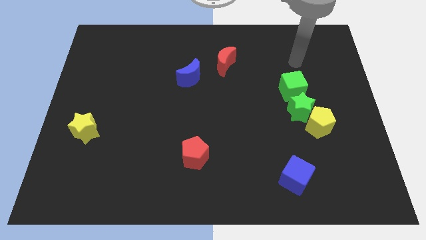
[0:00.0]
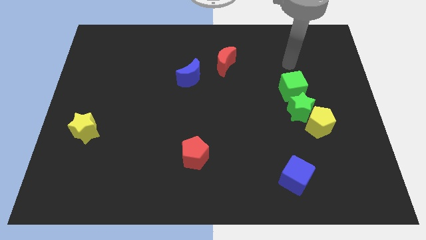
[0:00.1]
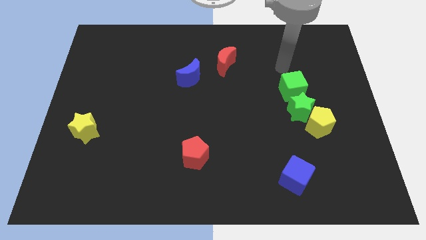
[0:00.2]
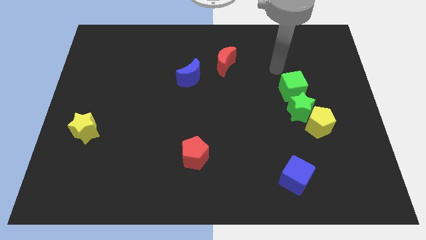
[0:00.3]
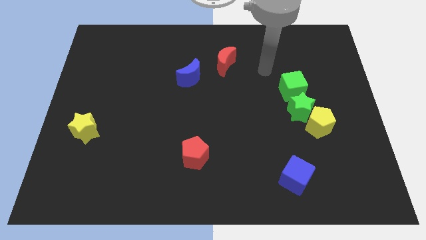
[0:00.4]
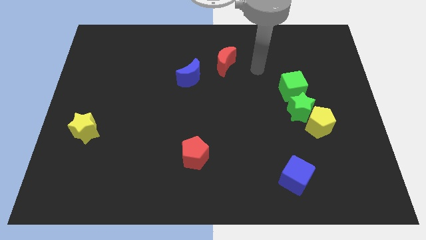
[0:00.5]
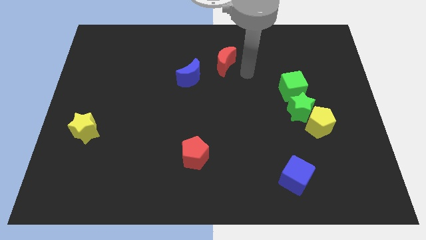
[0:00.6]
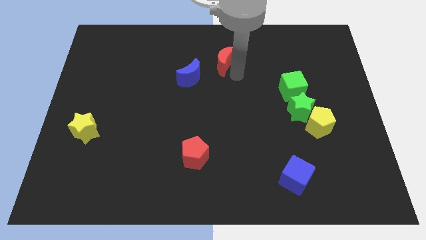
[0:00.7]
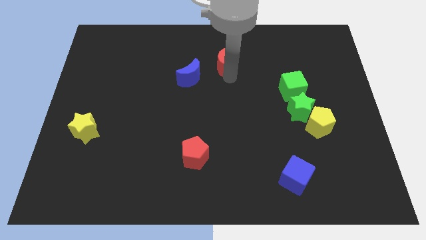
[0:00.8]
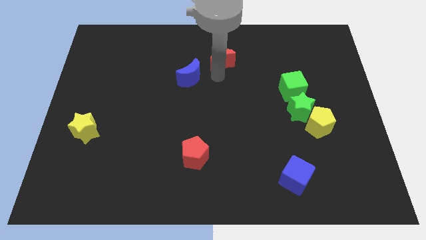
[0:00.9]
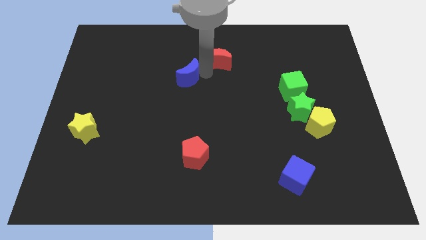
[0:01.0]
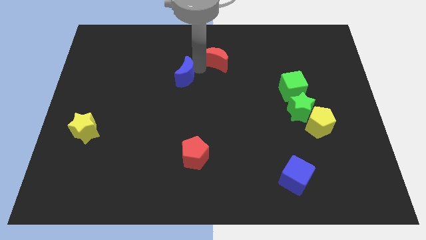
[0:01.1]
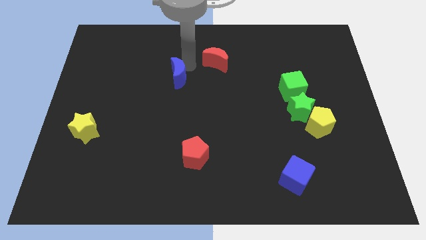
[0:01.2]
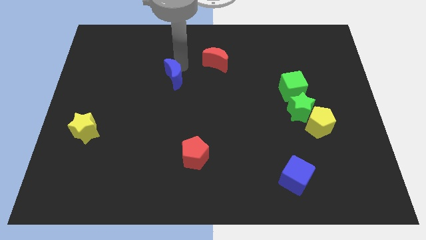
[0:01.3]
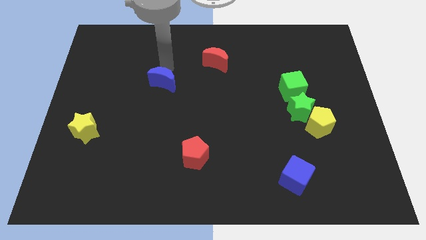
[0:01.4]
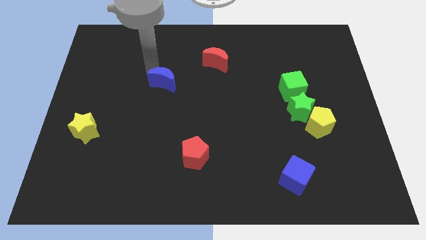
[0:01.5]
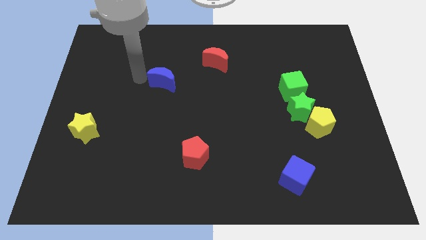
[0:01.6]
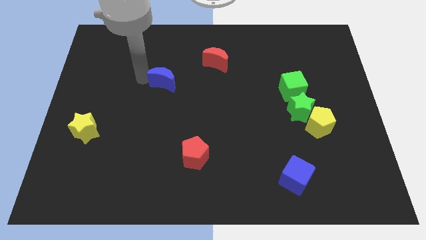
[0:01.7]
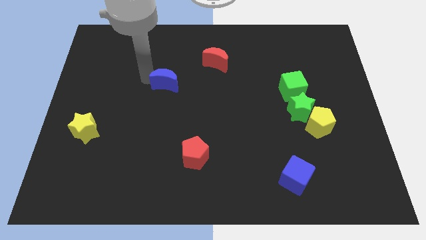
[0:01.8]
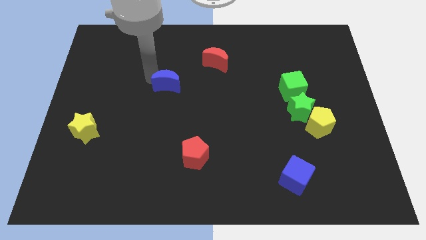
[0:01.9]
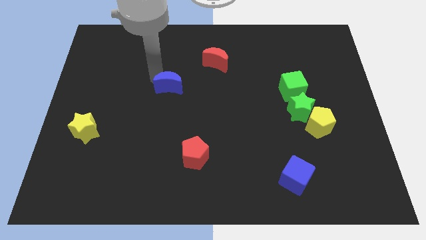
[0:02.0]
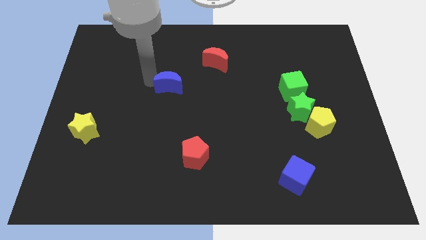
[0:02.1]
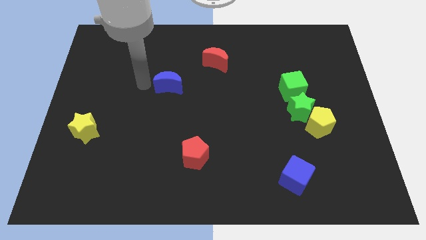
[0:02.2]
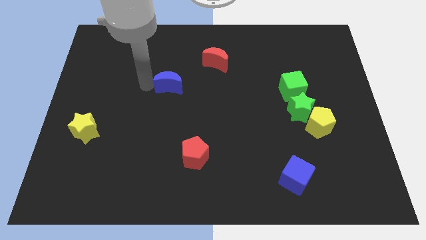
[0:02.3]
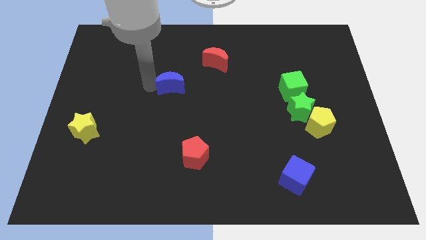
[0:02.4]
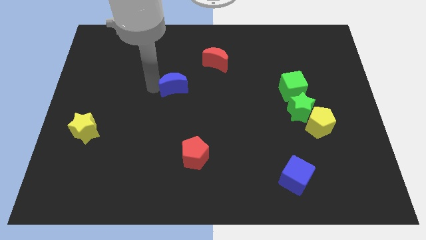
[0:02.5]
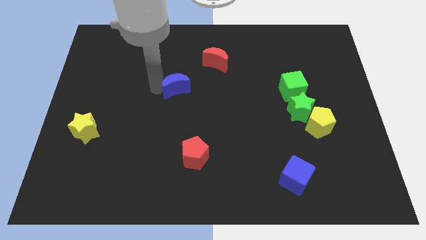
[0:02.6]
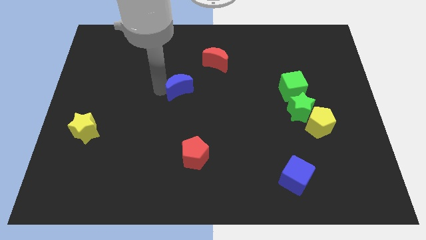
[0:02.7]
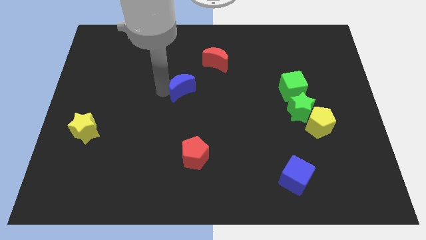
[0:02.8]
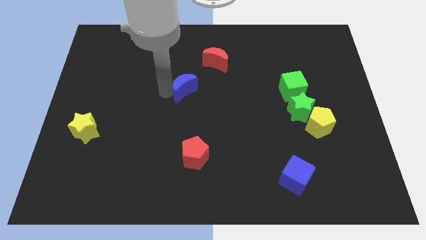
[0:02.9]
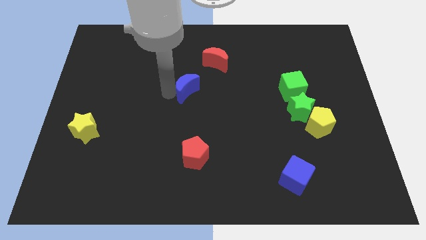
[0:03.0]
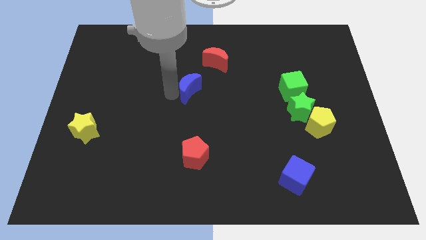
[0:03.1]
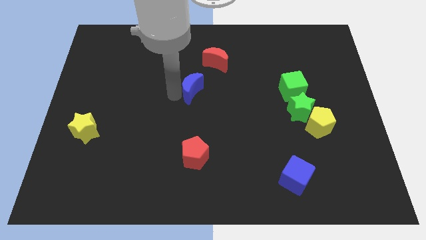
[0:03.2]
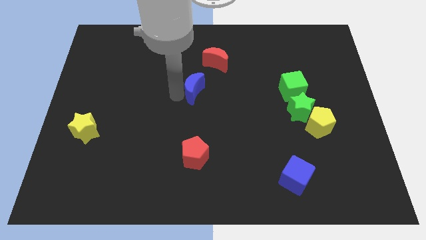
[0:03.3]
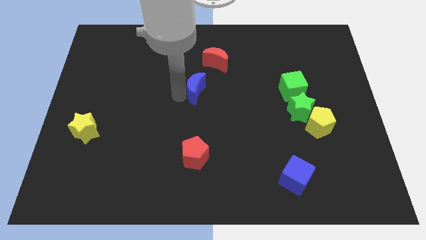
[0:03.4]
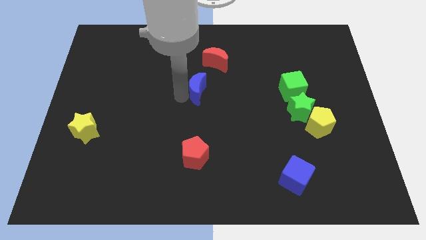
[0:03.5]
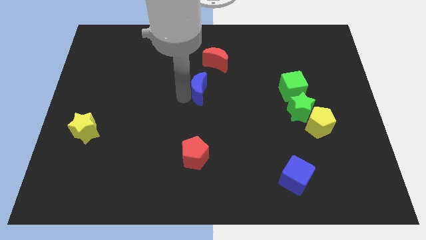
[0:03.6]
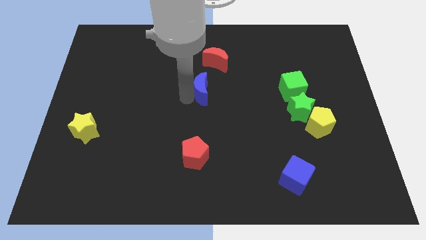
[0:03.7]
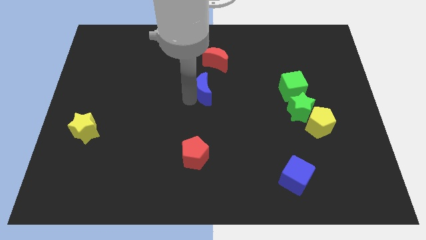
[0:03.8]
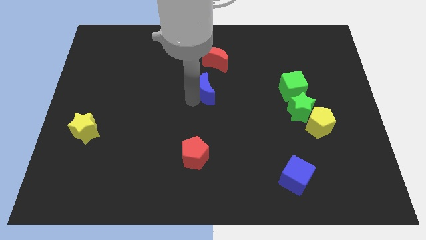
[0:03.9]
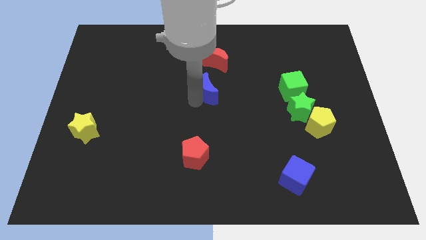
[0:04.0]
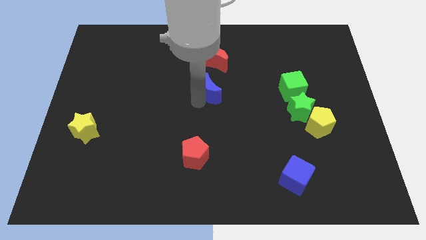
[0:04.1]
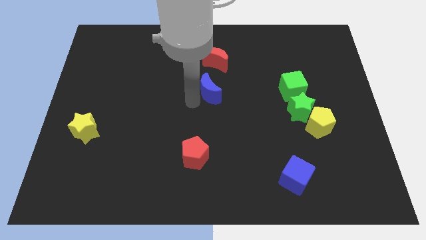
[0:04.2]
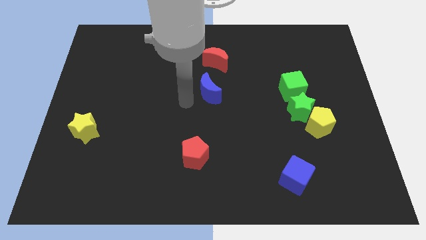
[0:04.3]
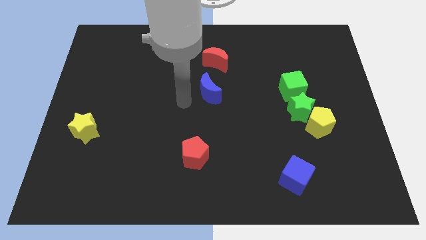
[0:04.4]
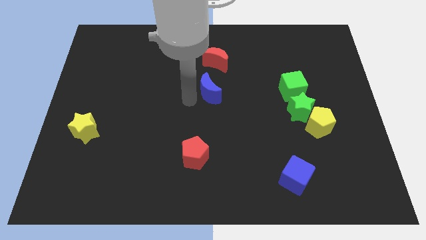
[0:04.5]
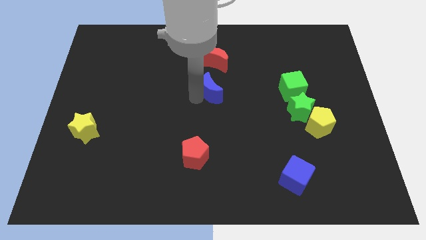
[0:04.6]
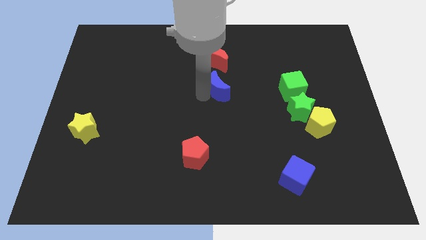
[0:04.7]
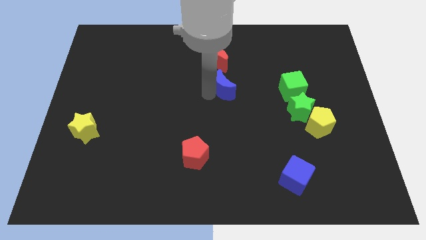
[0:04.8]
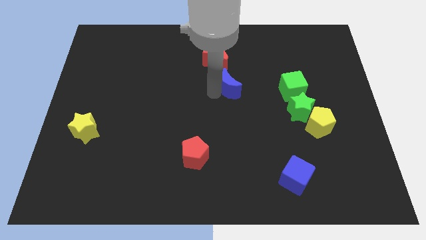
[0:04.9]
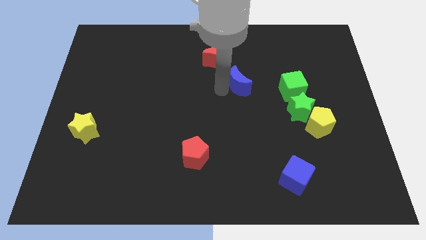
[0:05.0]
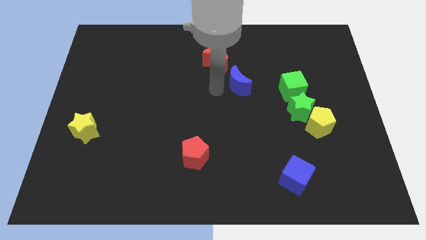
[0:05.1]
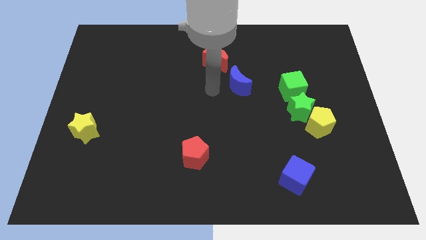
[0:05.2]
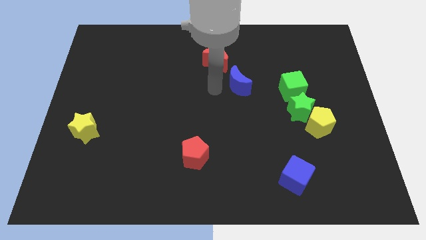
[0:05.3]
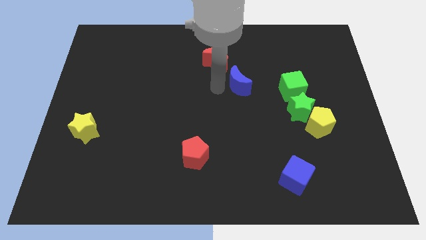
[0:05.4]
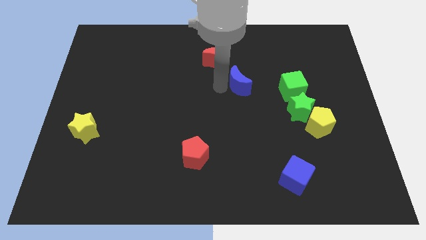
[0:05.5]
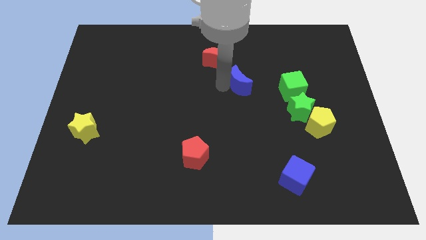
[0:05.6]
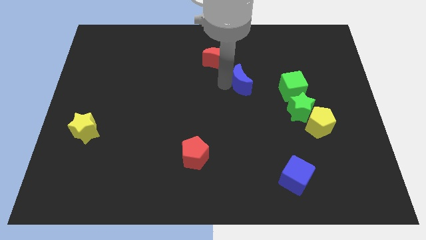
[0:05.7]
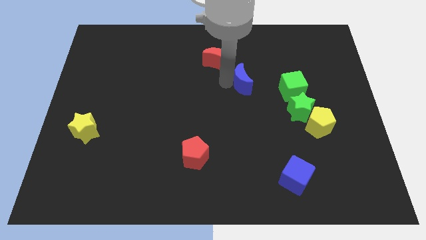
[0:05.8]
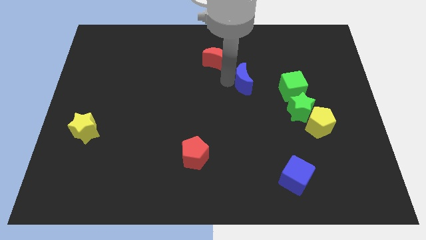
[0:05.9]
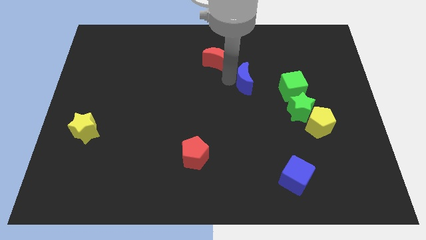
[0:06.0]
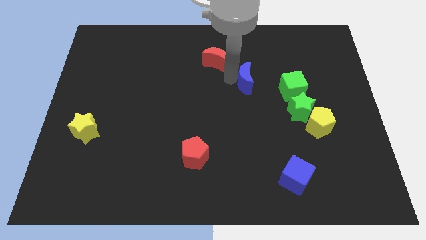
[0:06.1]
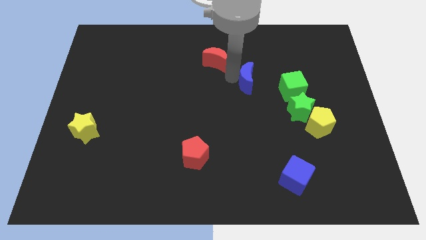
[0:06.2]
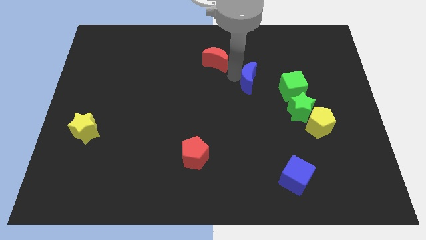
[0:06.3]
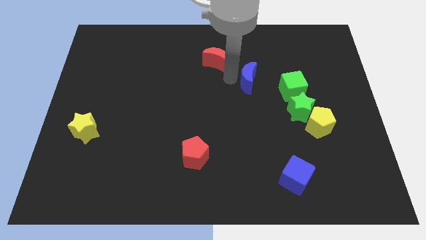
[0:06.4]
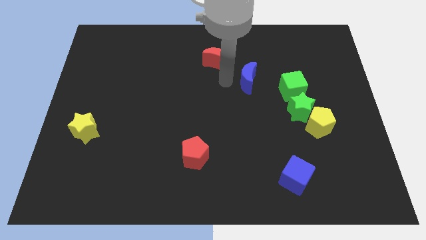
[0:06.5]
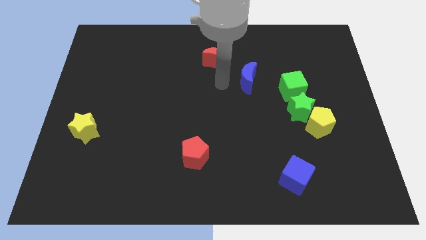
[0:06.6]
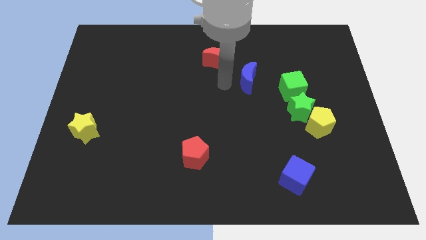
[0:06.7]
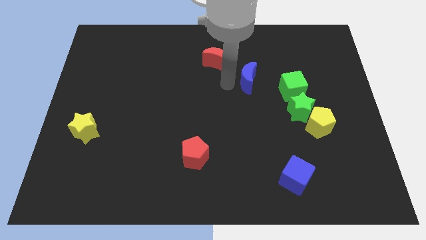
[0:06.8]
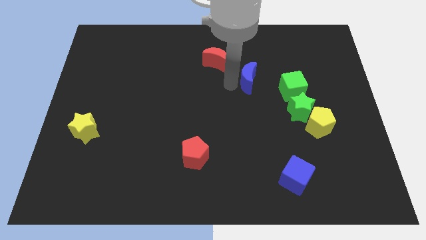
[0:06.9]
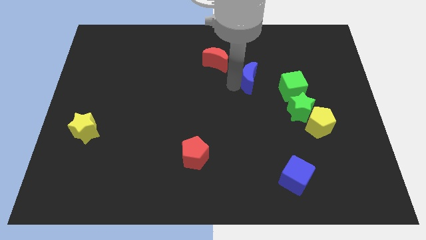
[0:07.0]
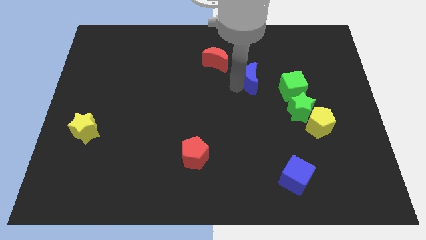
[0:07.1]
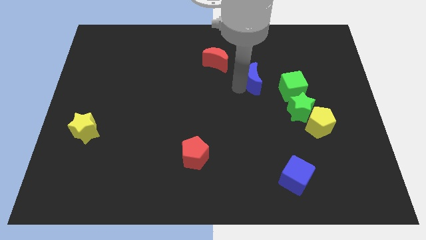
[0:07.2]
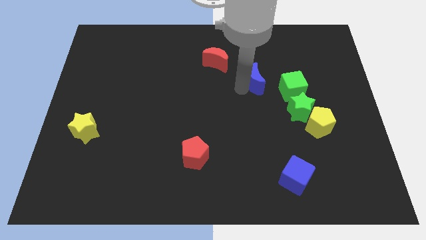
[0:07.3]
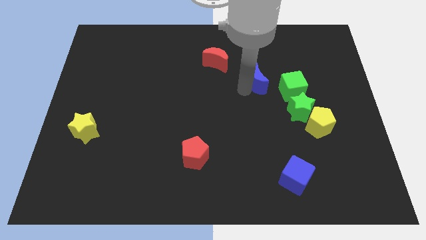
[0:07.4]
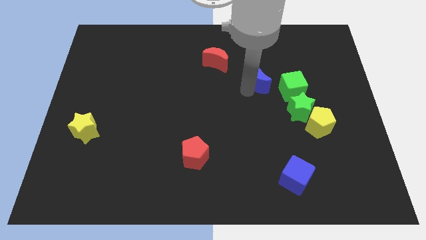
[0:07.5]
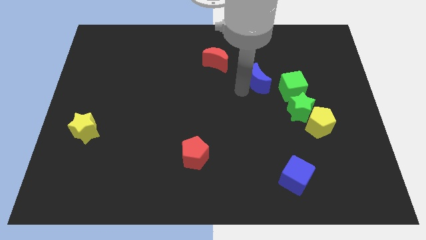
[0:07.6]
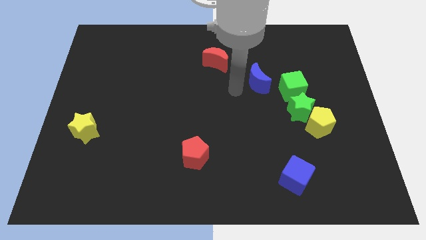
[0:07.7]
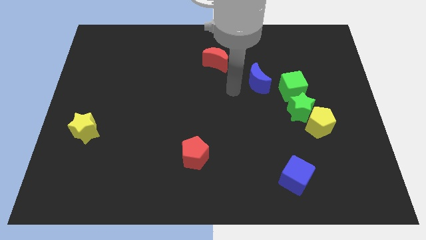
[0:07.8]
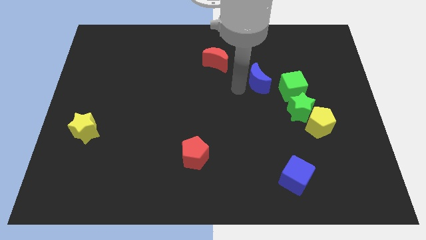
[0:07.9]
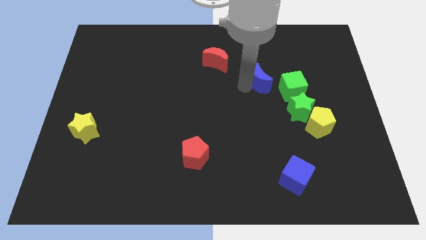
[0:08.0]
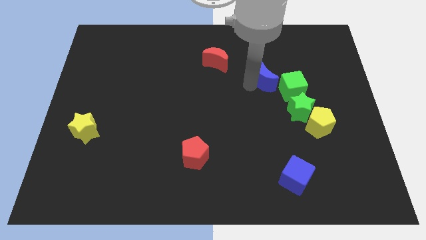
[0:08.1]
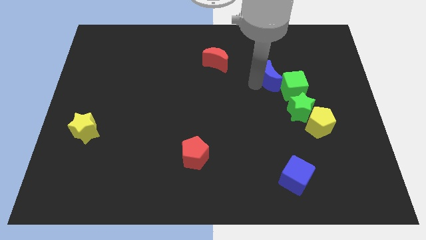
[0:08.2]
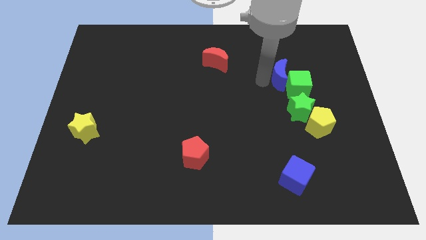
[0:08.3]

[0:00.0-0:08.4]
move the blue moon to the right
